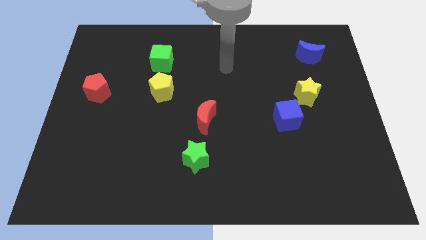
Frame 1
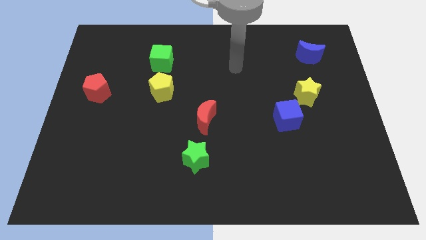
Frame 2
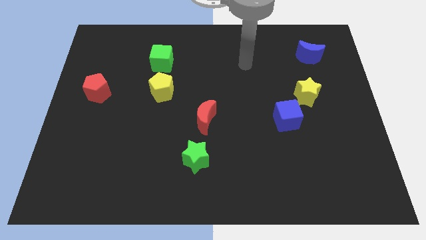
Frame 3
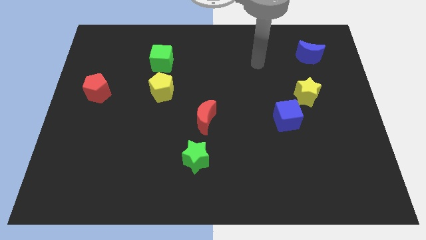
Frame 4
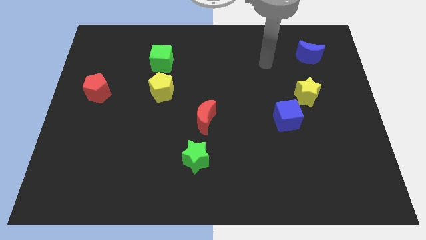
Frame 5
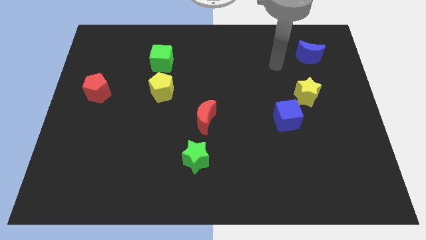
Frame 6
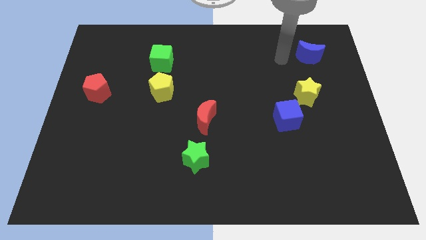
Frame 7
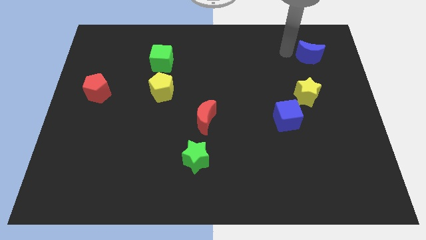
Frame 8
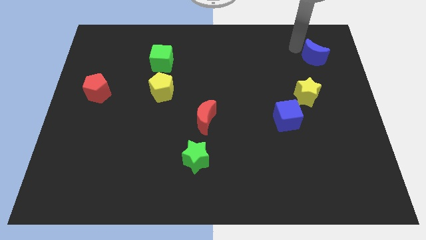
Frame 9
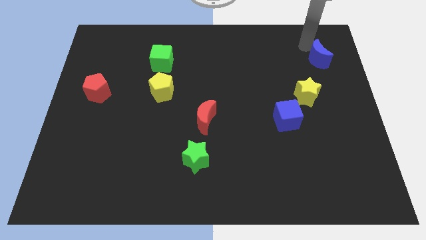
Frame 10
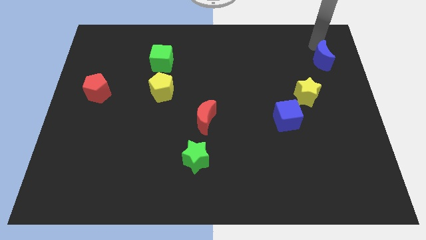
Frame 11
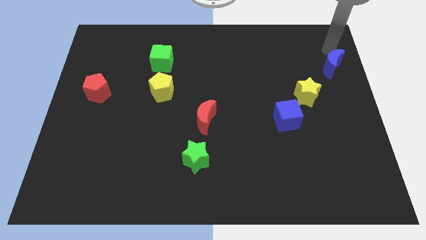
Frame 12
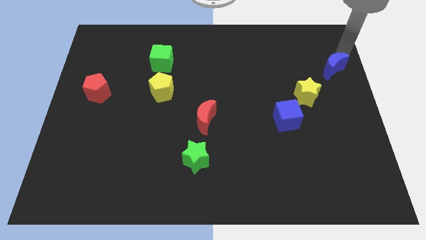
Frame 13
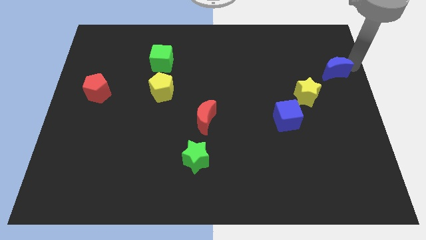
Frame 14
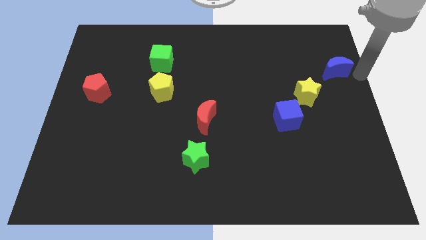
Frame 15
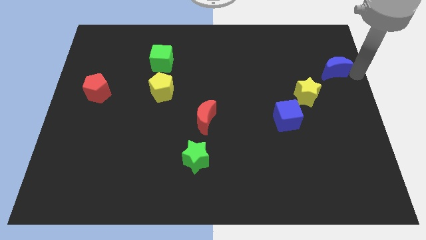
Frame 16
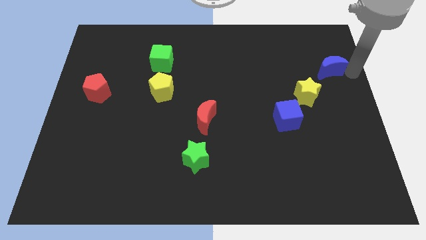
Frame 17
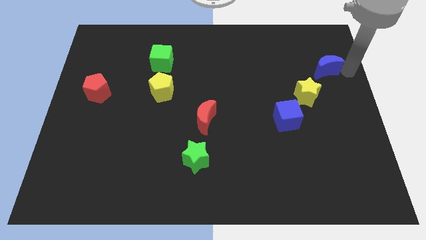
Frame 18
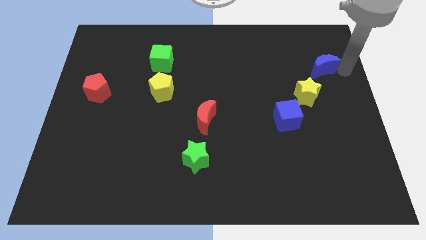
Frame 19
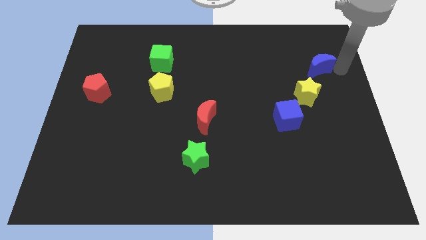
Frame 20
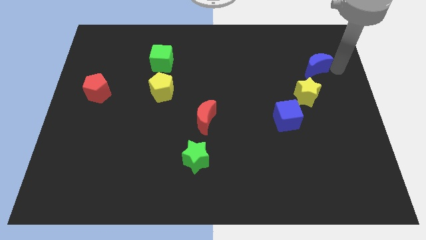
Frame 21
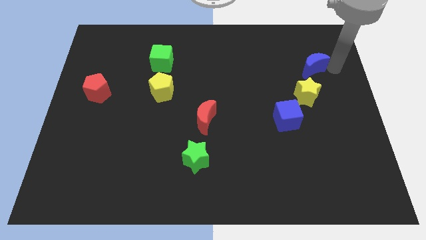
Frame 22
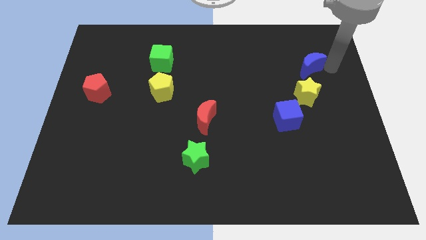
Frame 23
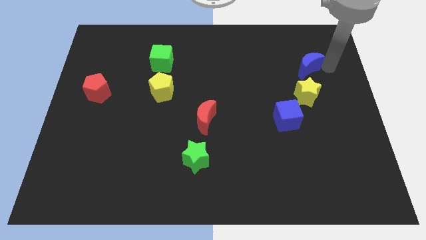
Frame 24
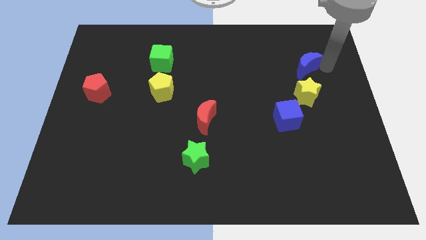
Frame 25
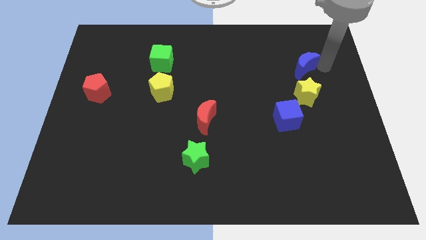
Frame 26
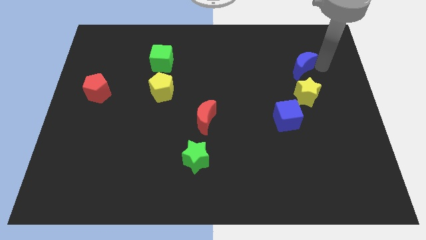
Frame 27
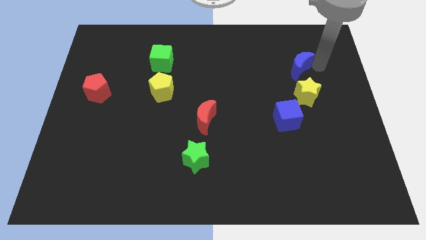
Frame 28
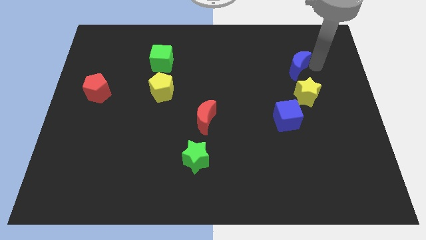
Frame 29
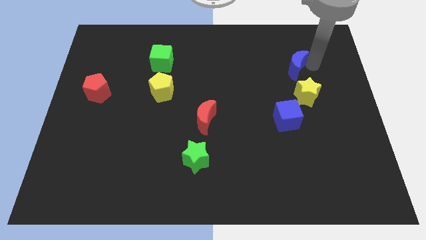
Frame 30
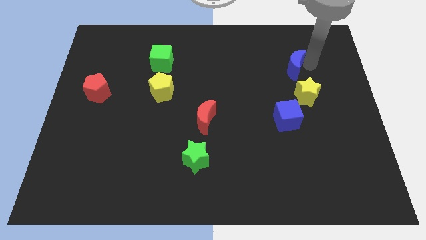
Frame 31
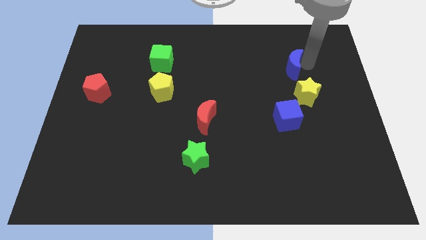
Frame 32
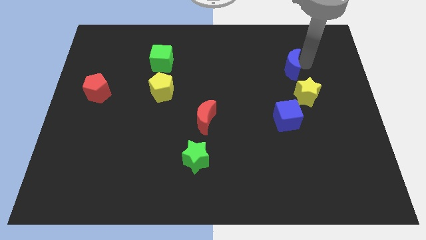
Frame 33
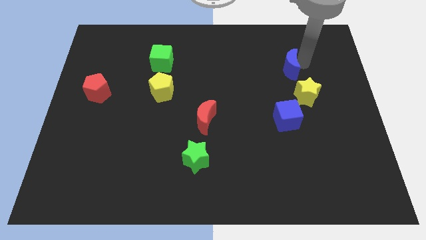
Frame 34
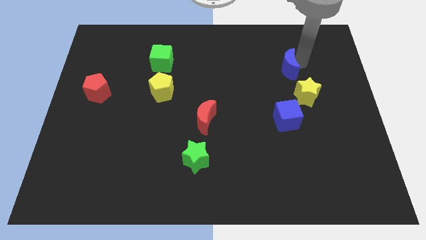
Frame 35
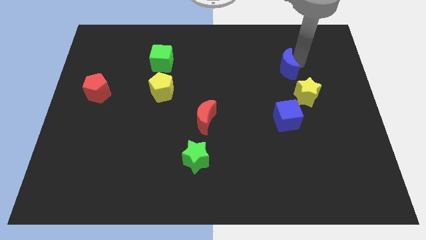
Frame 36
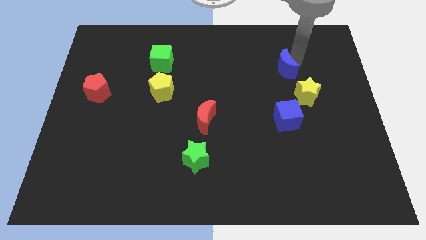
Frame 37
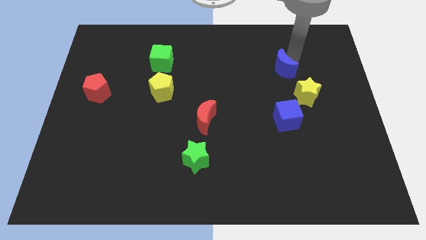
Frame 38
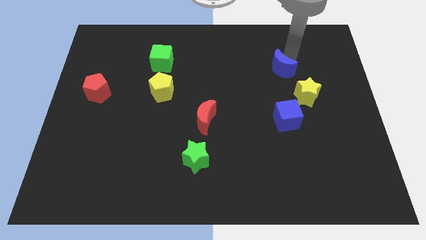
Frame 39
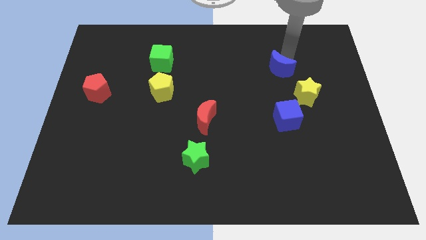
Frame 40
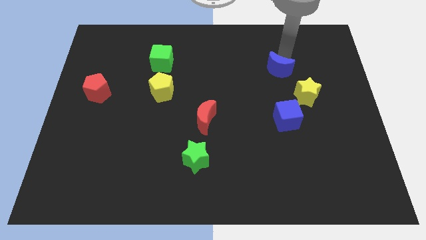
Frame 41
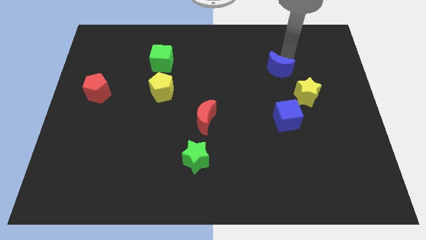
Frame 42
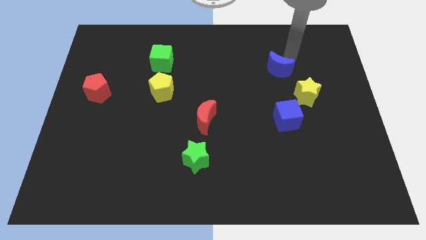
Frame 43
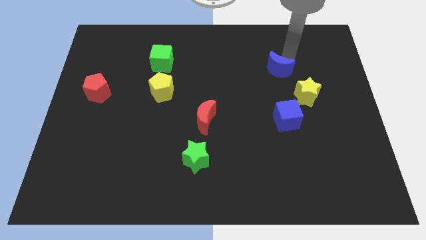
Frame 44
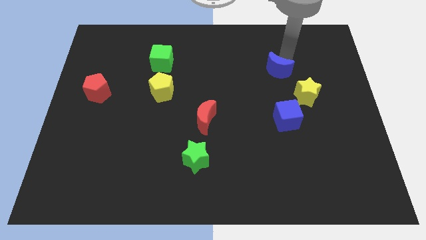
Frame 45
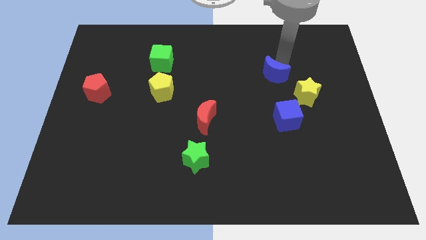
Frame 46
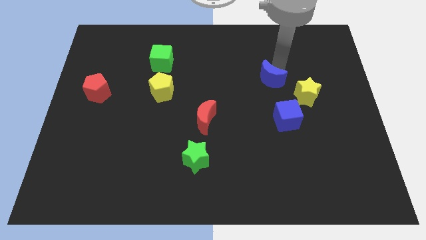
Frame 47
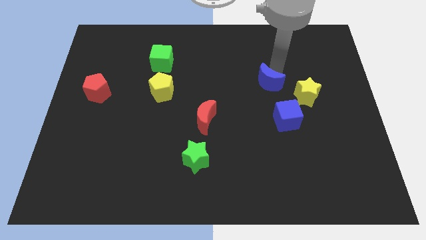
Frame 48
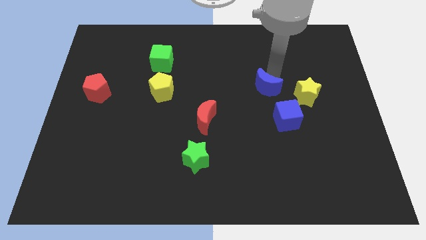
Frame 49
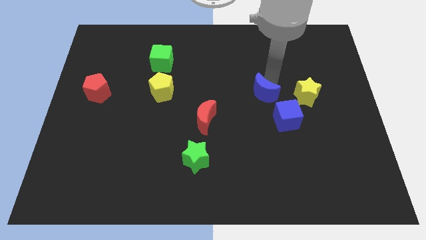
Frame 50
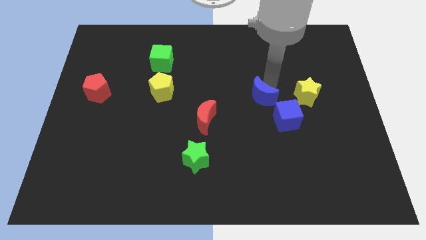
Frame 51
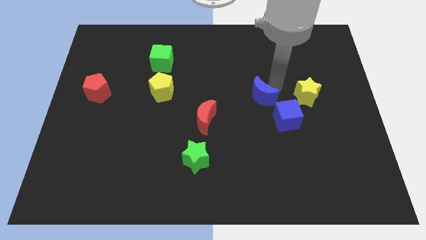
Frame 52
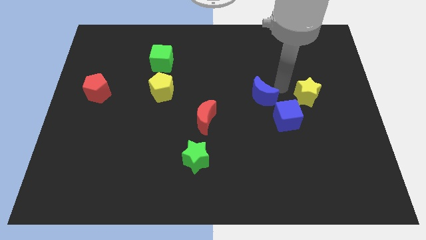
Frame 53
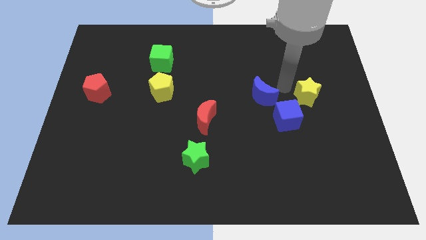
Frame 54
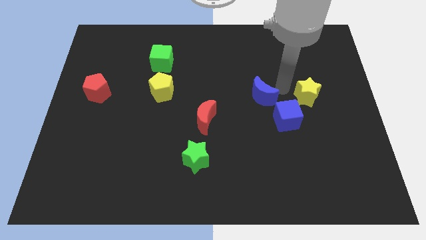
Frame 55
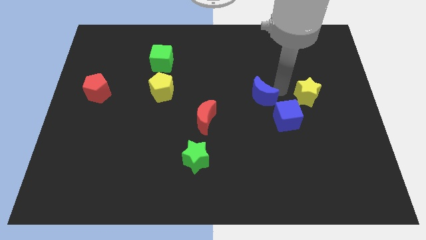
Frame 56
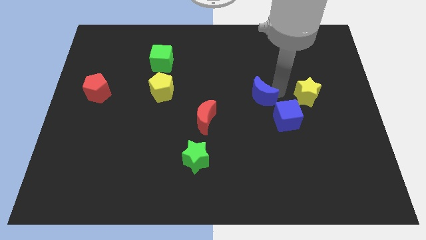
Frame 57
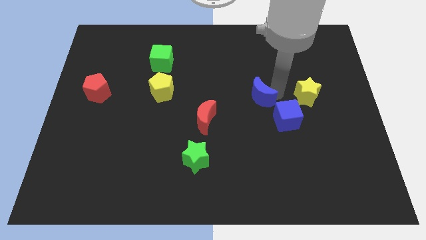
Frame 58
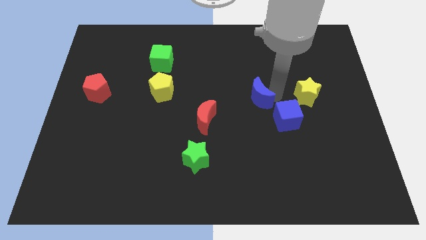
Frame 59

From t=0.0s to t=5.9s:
move the blue moon down and then left

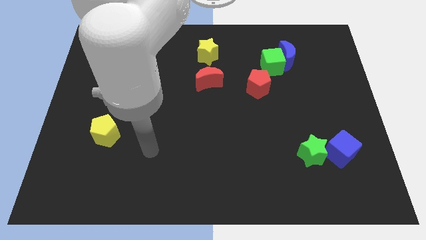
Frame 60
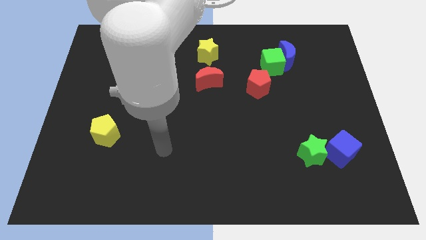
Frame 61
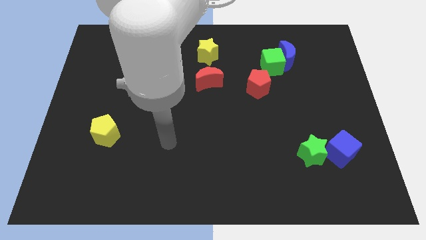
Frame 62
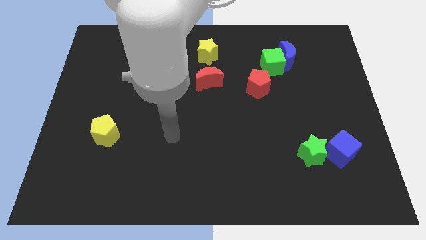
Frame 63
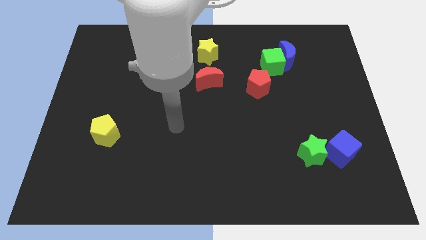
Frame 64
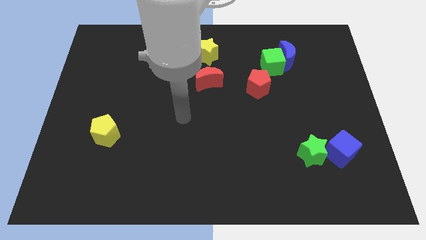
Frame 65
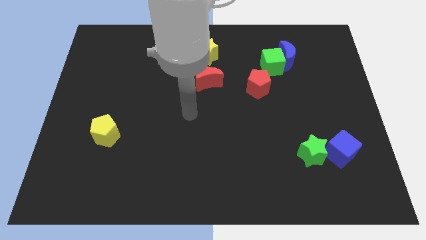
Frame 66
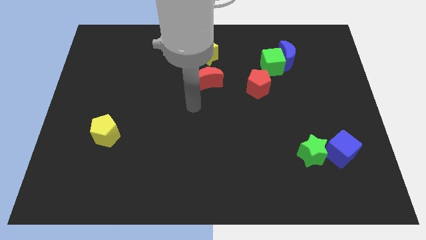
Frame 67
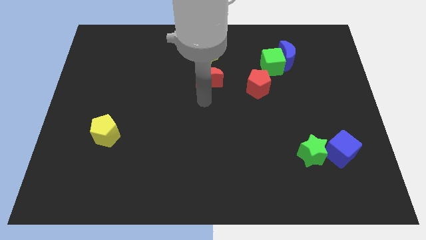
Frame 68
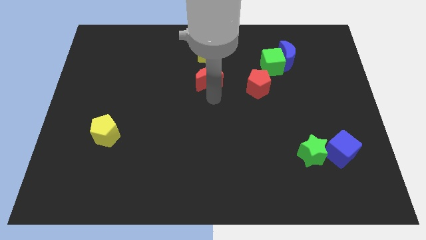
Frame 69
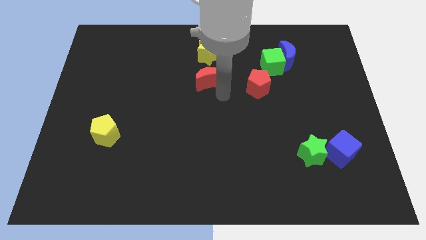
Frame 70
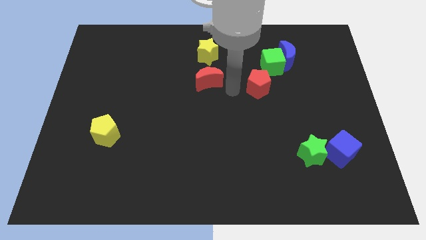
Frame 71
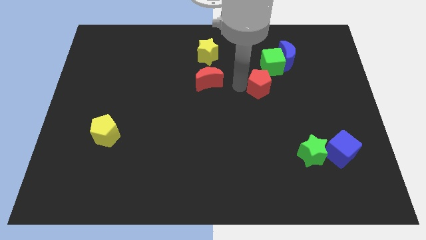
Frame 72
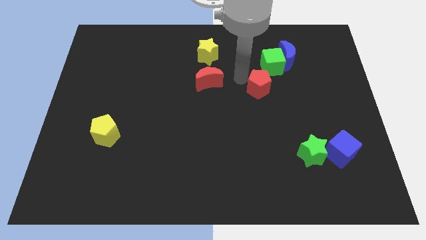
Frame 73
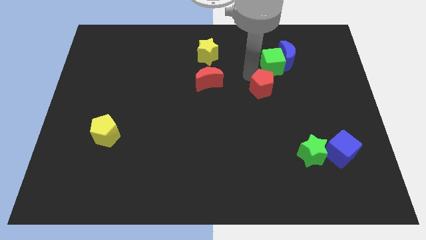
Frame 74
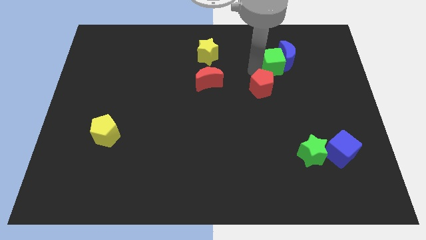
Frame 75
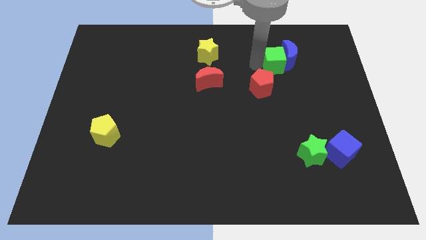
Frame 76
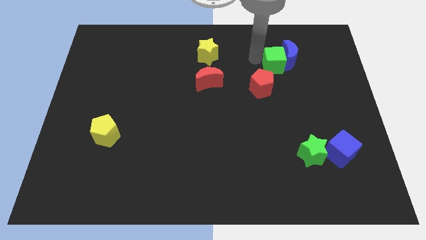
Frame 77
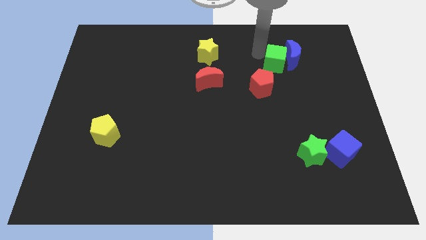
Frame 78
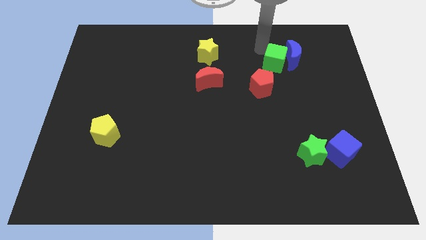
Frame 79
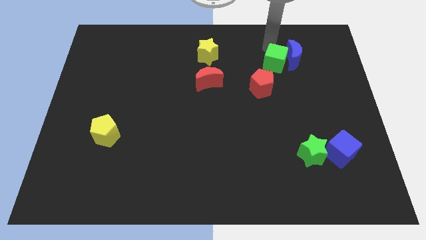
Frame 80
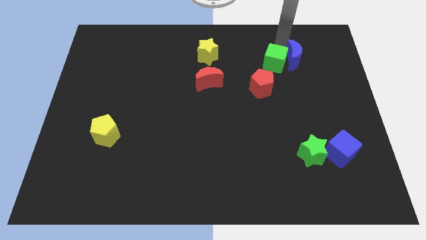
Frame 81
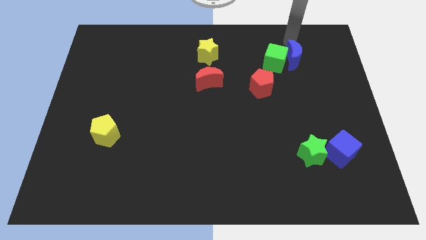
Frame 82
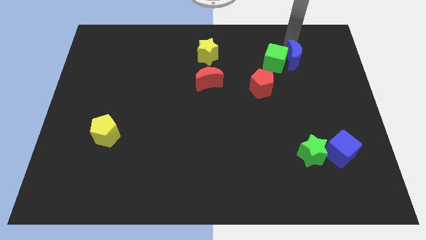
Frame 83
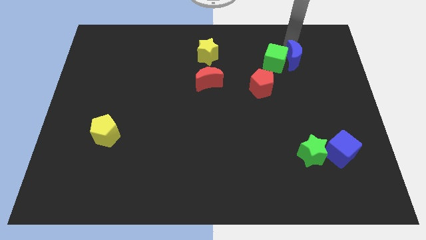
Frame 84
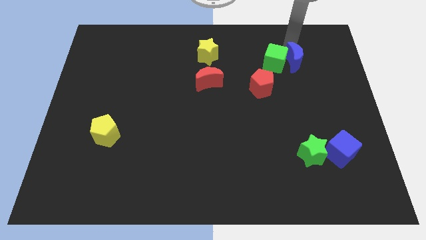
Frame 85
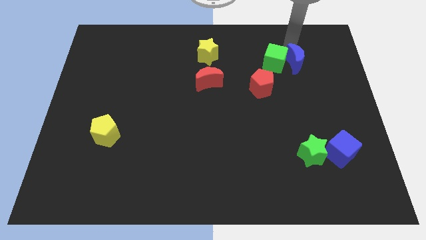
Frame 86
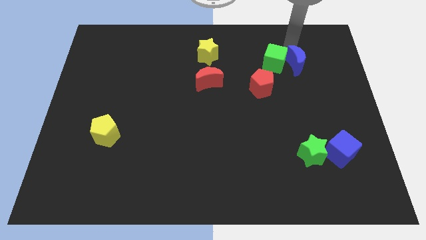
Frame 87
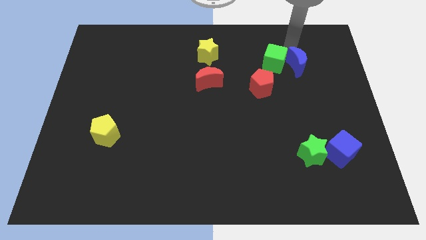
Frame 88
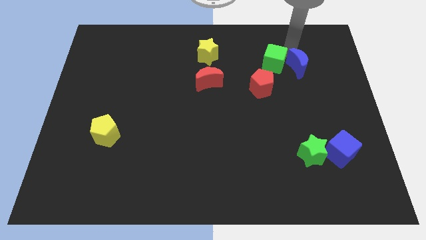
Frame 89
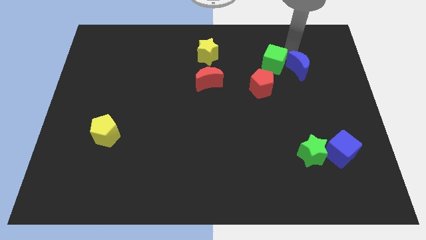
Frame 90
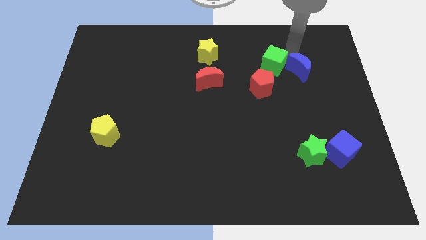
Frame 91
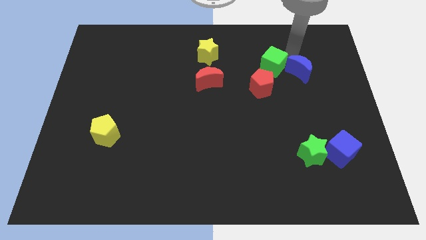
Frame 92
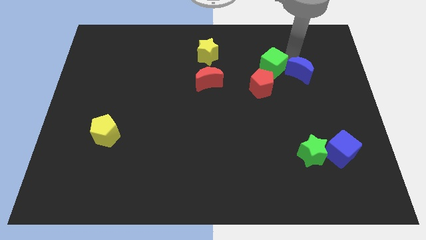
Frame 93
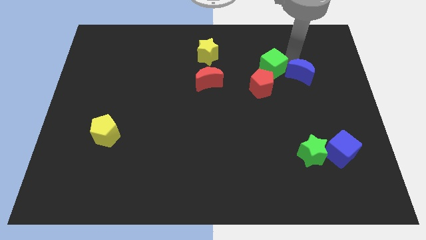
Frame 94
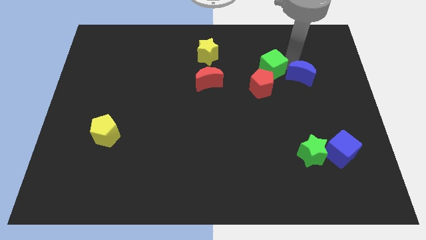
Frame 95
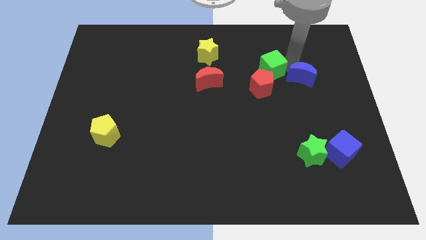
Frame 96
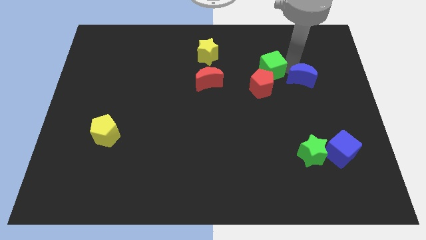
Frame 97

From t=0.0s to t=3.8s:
slide the blue moon a bit downwards
